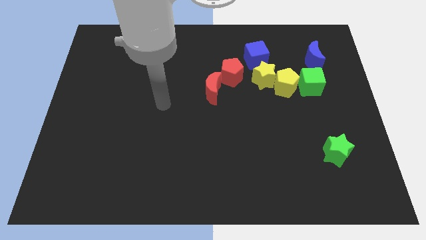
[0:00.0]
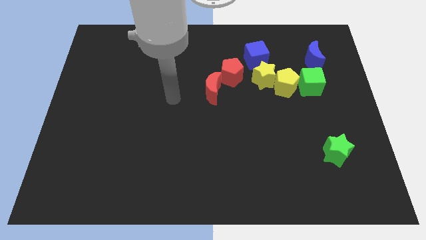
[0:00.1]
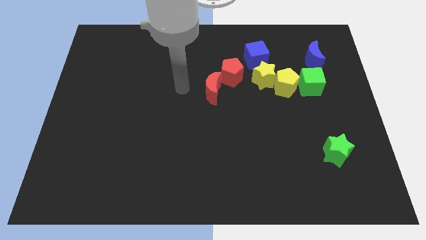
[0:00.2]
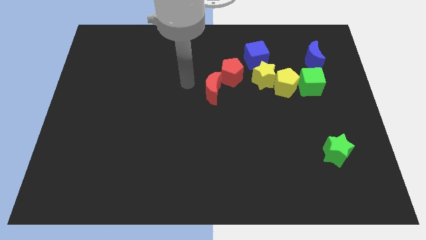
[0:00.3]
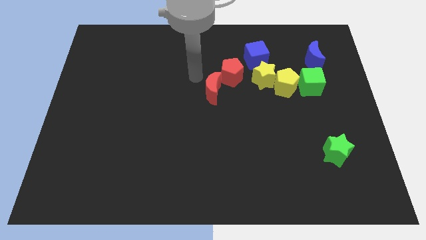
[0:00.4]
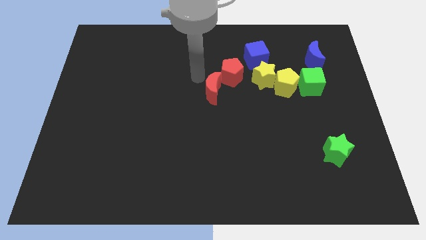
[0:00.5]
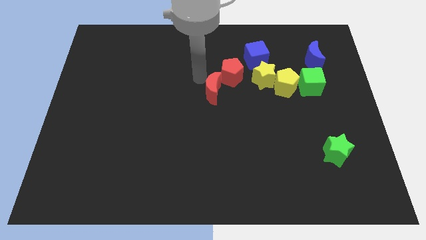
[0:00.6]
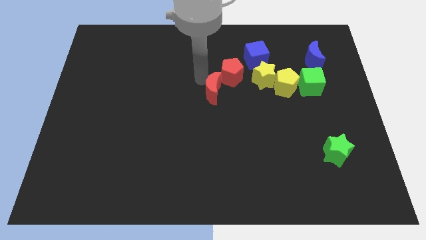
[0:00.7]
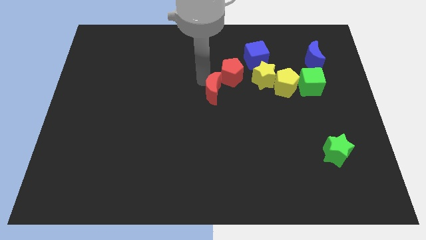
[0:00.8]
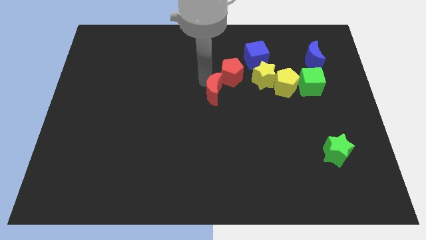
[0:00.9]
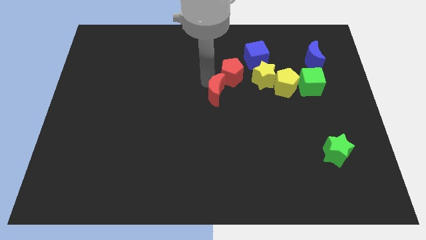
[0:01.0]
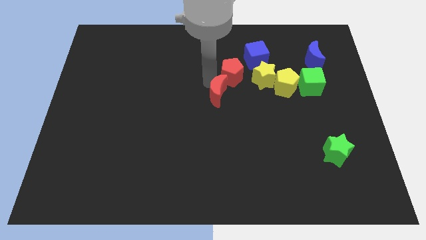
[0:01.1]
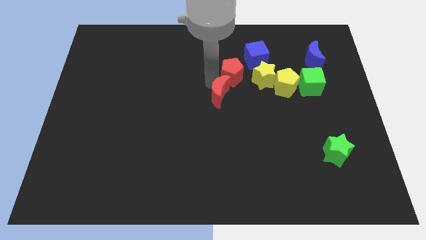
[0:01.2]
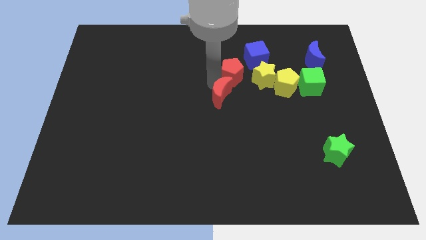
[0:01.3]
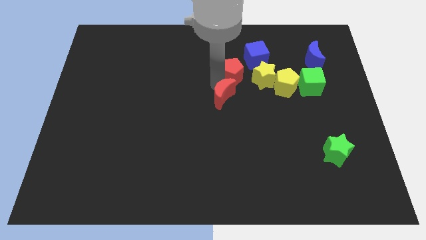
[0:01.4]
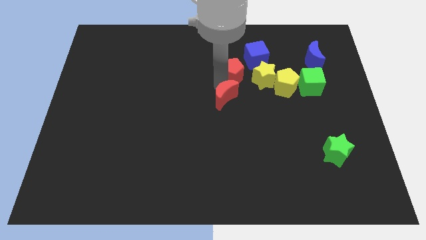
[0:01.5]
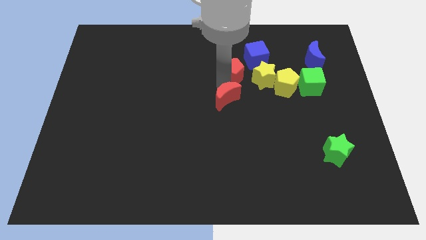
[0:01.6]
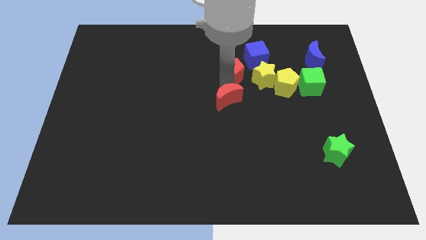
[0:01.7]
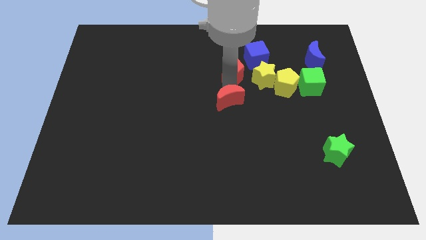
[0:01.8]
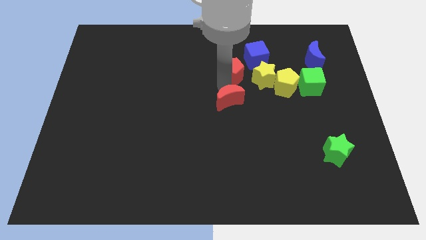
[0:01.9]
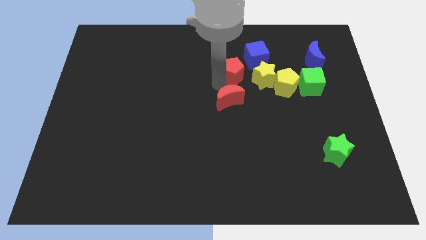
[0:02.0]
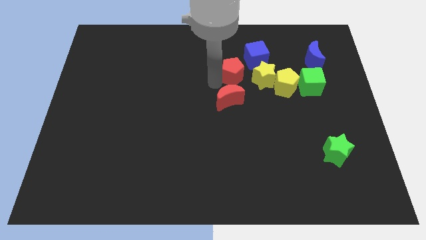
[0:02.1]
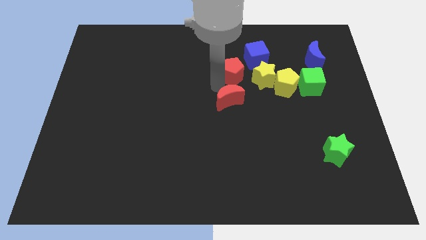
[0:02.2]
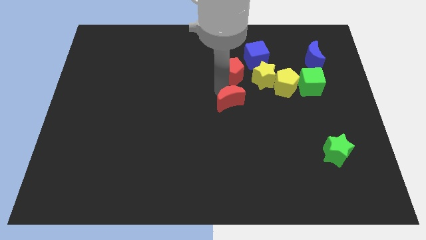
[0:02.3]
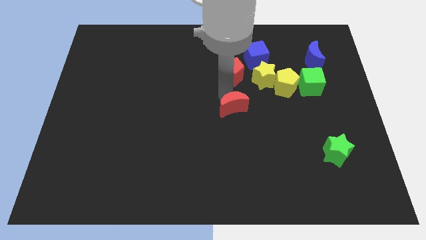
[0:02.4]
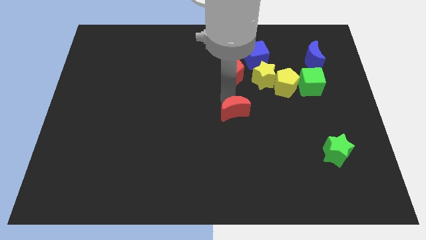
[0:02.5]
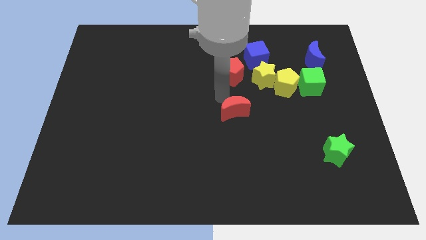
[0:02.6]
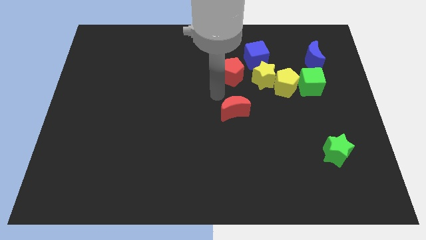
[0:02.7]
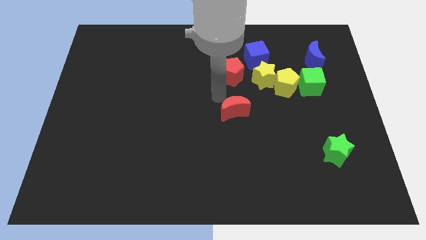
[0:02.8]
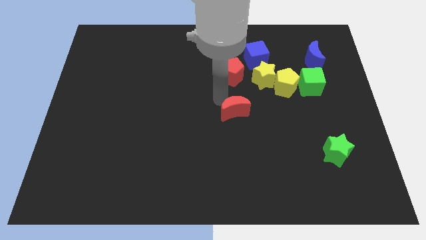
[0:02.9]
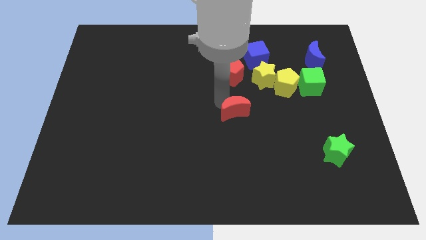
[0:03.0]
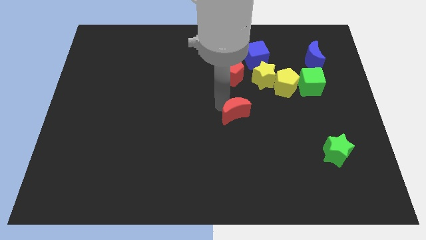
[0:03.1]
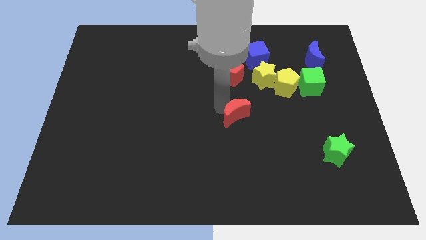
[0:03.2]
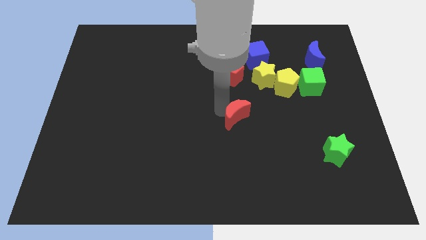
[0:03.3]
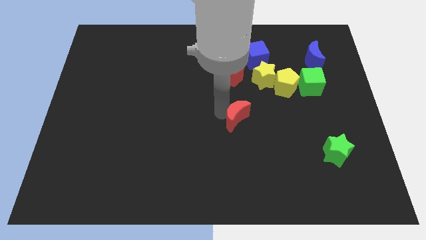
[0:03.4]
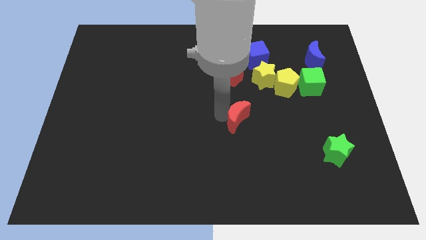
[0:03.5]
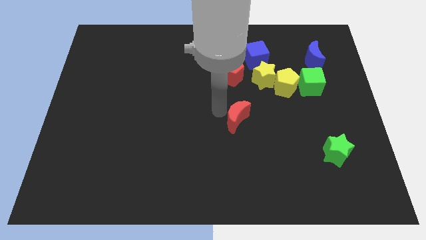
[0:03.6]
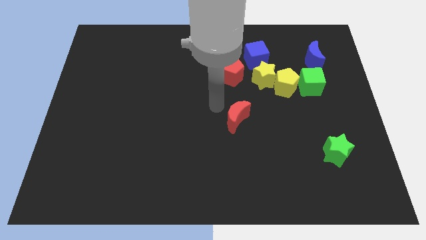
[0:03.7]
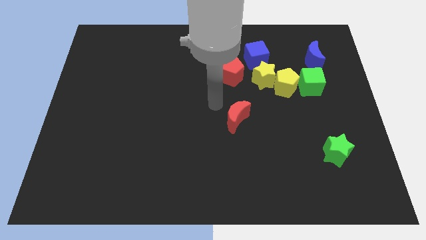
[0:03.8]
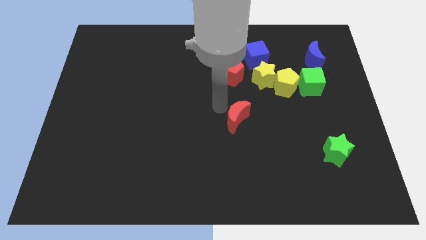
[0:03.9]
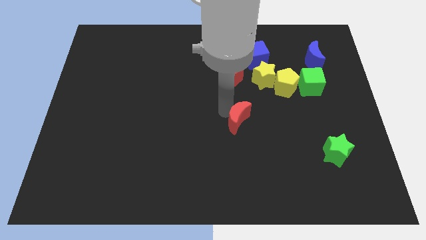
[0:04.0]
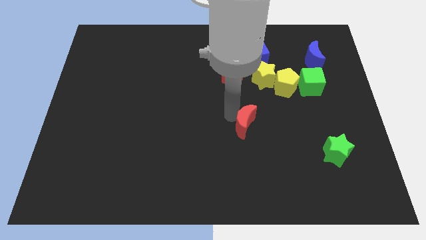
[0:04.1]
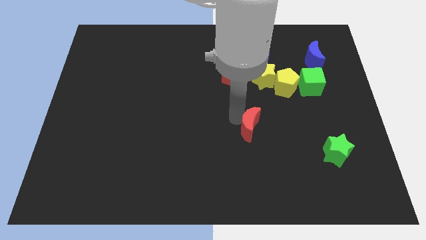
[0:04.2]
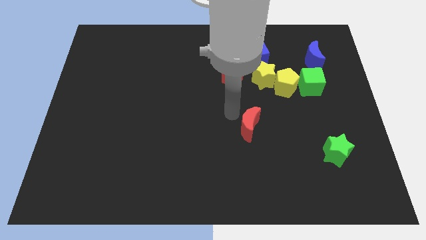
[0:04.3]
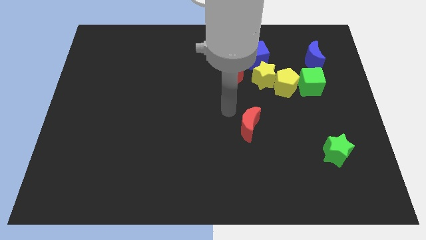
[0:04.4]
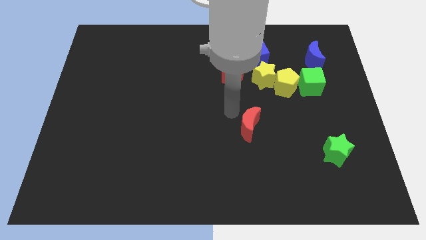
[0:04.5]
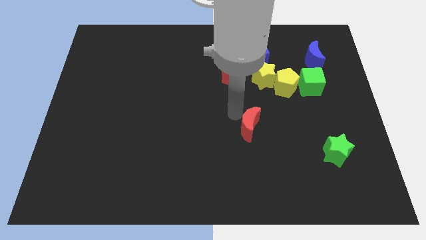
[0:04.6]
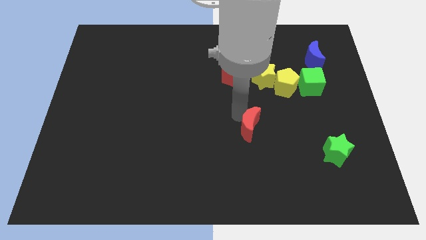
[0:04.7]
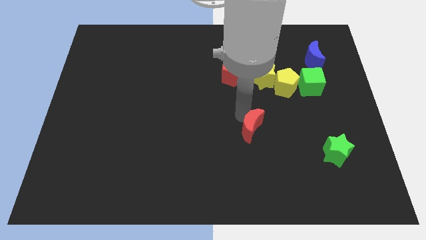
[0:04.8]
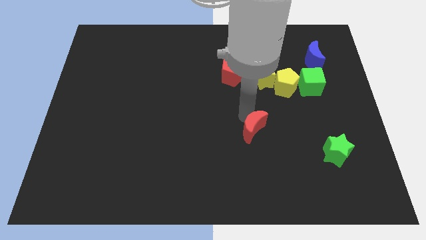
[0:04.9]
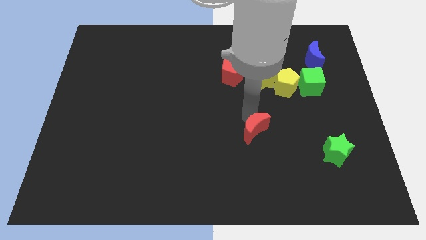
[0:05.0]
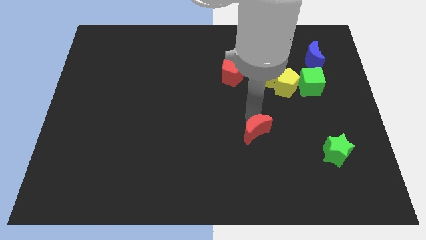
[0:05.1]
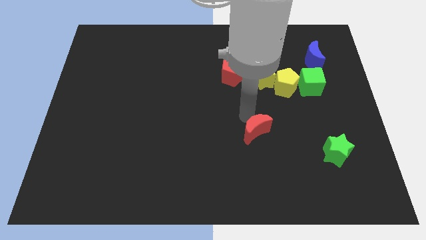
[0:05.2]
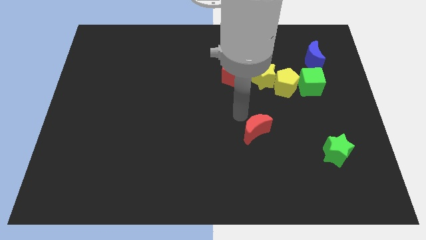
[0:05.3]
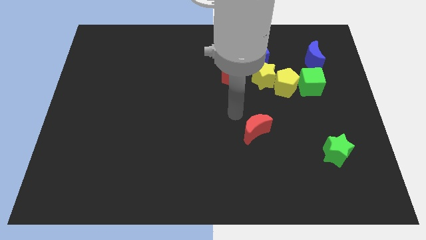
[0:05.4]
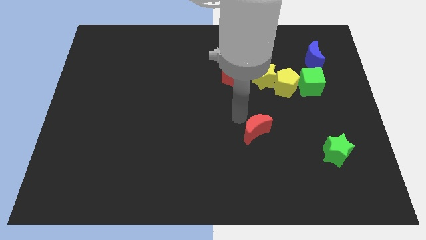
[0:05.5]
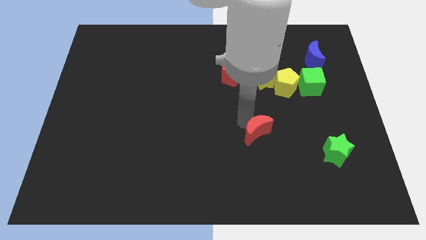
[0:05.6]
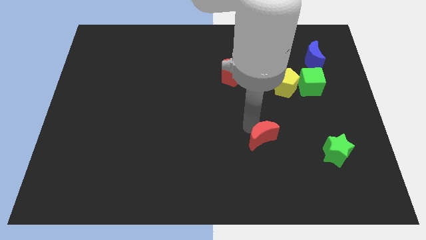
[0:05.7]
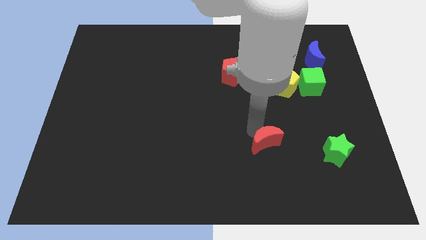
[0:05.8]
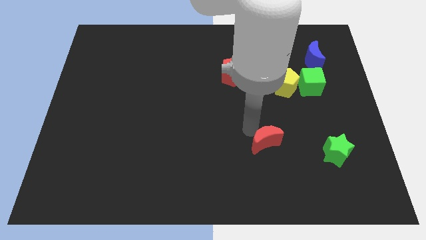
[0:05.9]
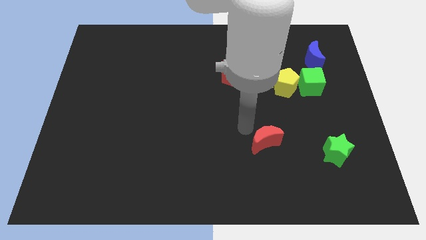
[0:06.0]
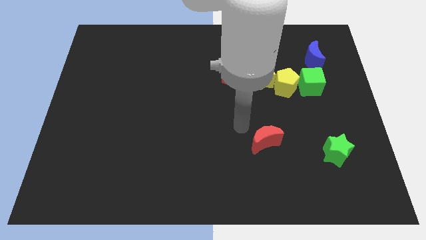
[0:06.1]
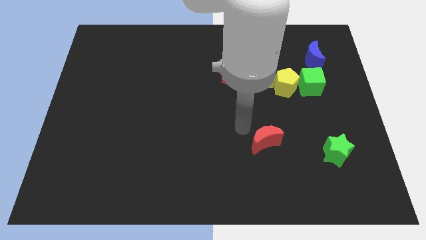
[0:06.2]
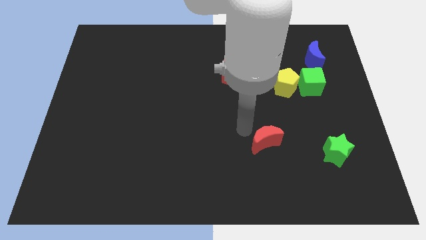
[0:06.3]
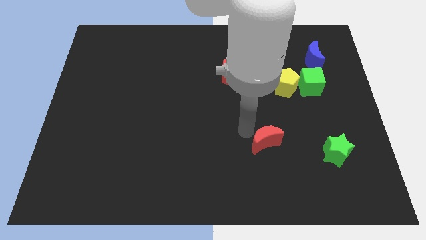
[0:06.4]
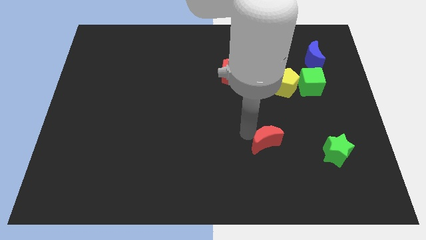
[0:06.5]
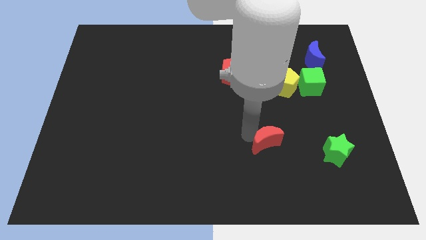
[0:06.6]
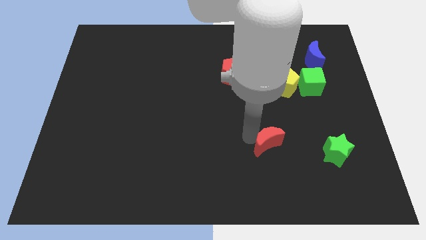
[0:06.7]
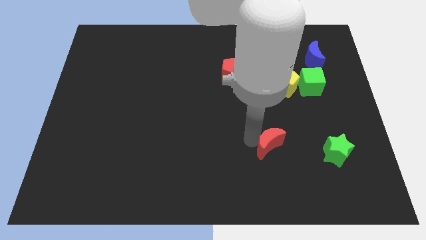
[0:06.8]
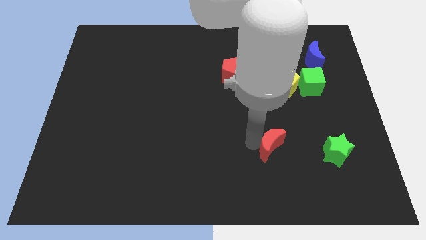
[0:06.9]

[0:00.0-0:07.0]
slide the red moon down and right

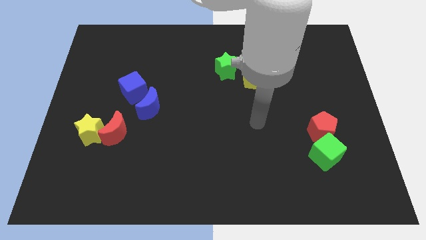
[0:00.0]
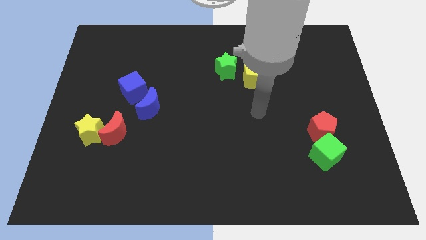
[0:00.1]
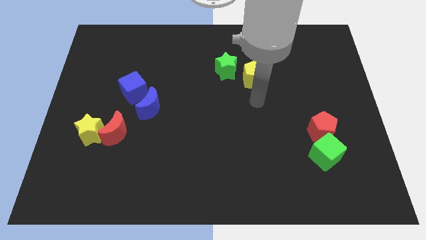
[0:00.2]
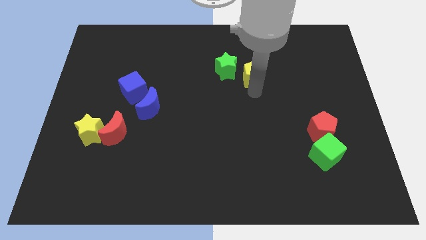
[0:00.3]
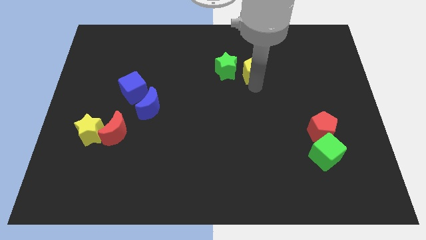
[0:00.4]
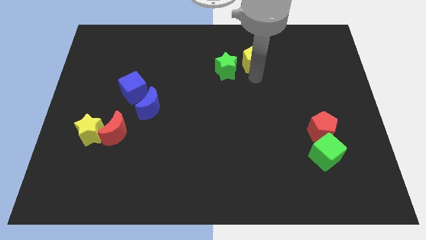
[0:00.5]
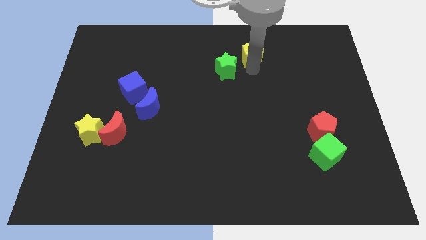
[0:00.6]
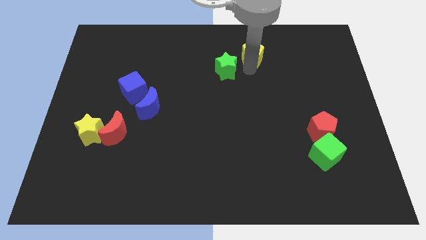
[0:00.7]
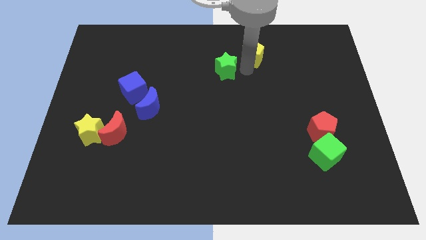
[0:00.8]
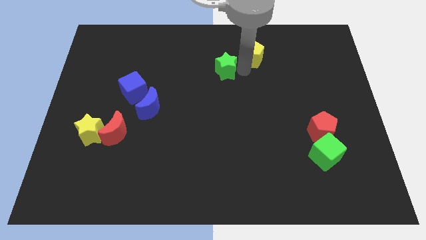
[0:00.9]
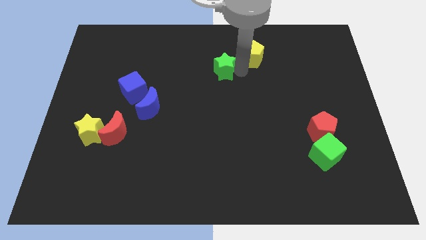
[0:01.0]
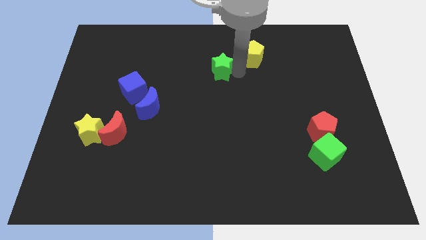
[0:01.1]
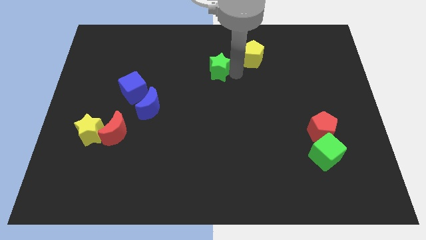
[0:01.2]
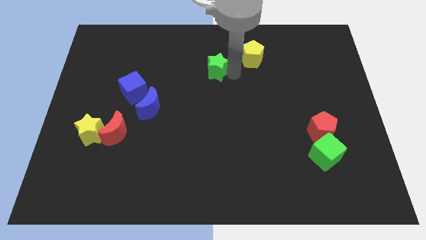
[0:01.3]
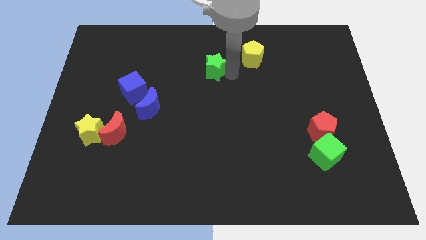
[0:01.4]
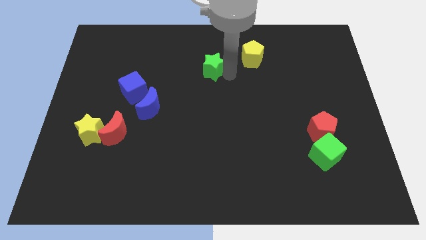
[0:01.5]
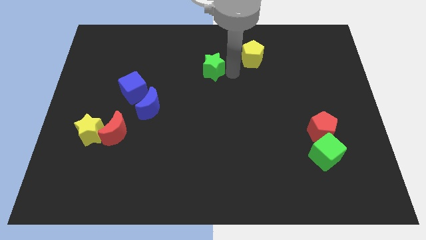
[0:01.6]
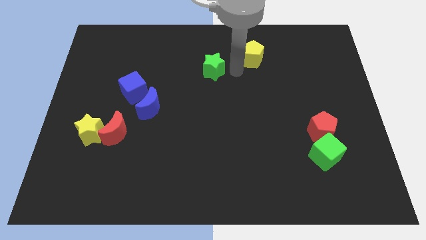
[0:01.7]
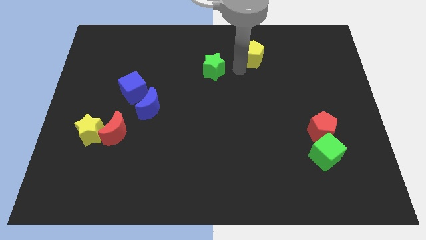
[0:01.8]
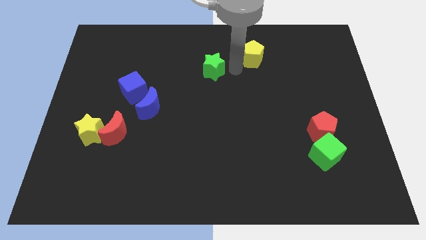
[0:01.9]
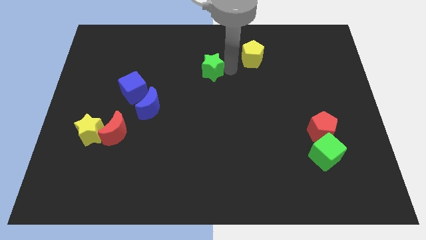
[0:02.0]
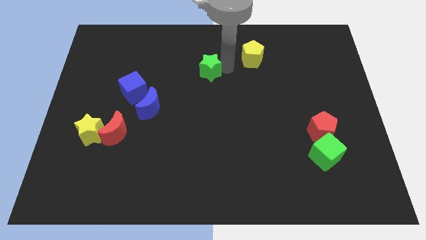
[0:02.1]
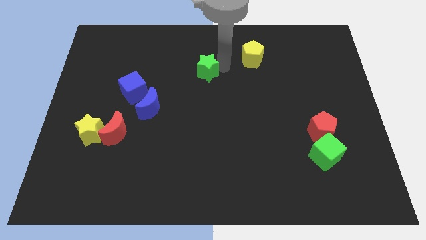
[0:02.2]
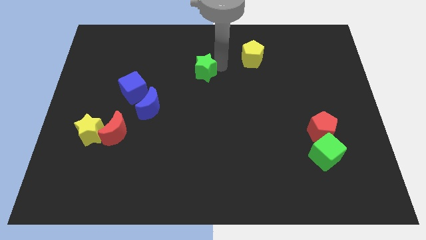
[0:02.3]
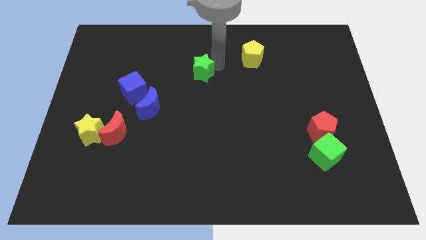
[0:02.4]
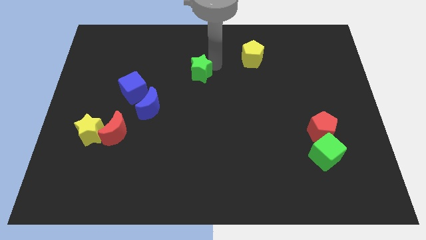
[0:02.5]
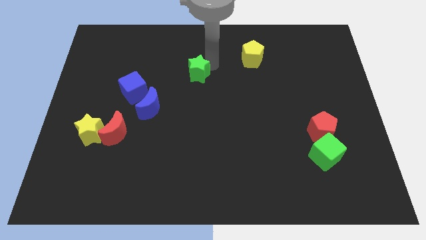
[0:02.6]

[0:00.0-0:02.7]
slide the green star a little bit left
